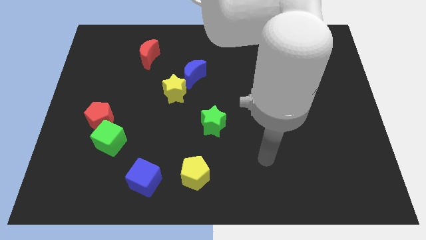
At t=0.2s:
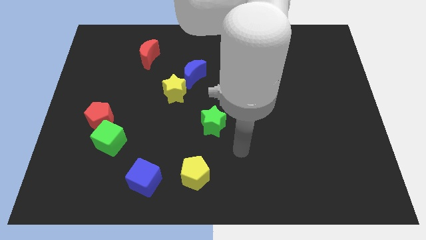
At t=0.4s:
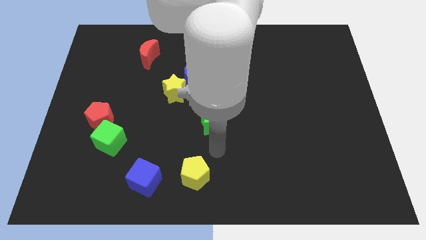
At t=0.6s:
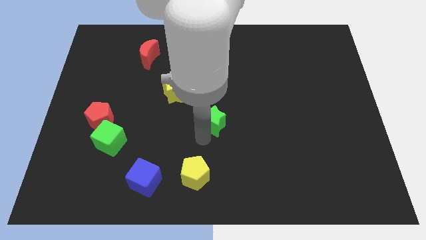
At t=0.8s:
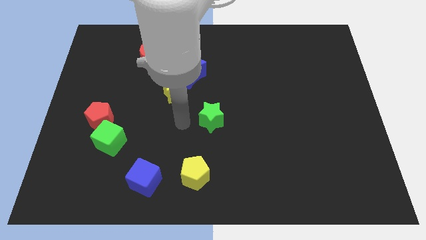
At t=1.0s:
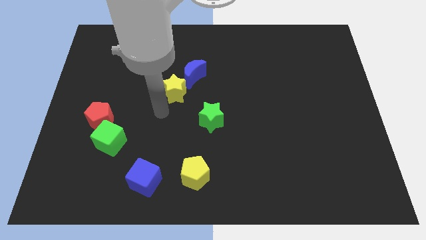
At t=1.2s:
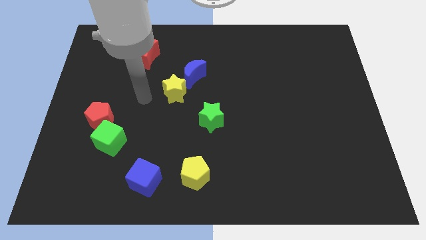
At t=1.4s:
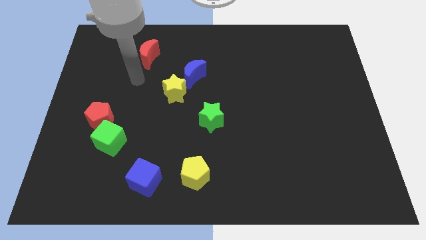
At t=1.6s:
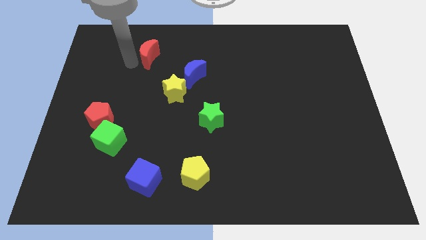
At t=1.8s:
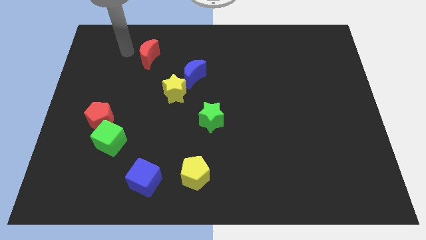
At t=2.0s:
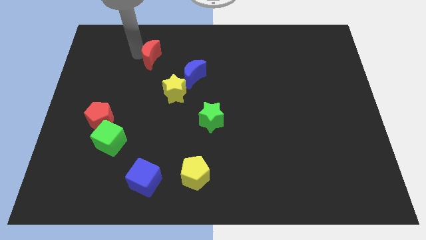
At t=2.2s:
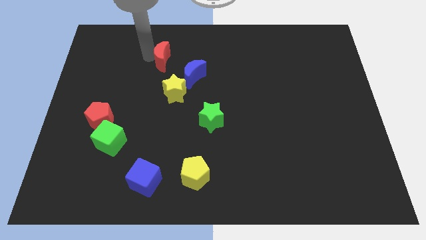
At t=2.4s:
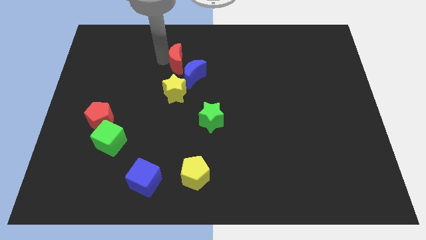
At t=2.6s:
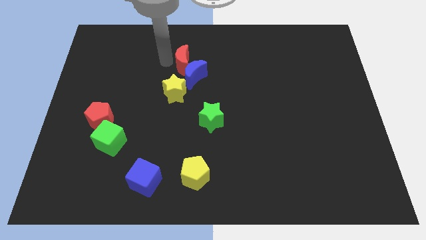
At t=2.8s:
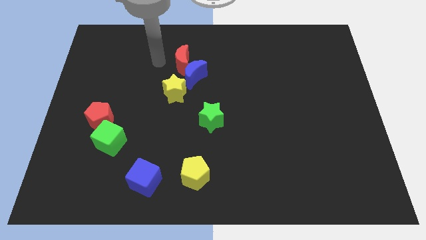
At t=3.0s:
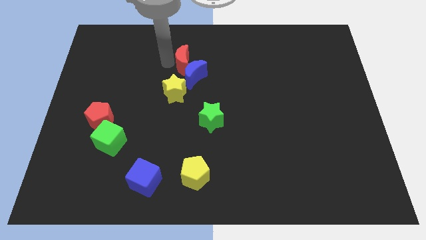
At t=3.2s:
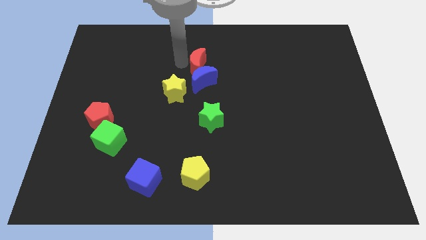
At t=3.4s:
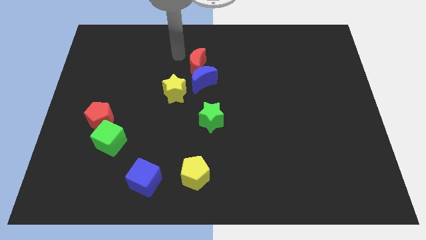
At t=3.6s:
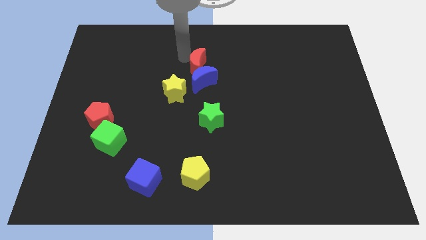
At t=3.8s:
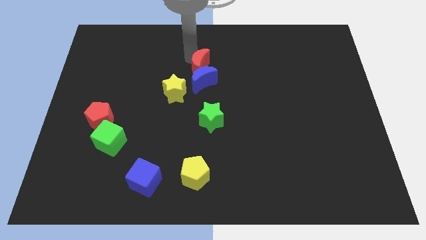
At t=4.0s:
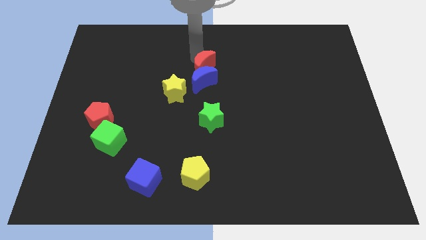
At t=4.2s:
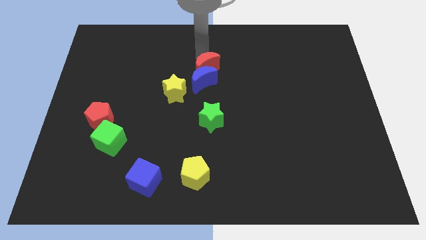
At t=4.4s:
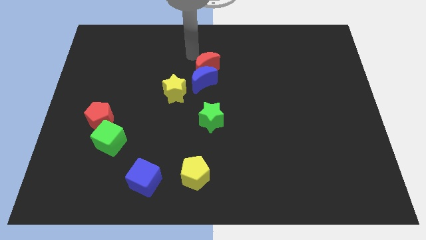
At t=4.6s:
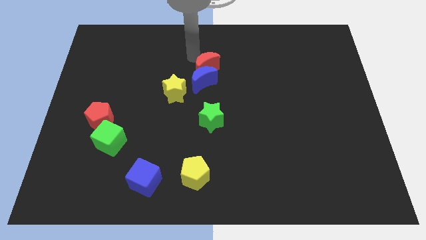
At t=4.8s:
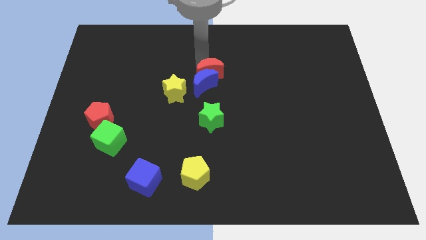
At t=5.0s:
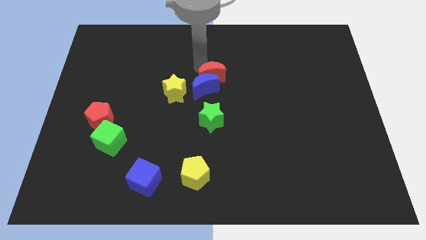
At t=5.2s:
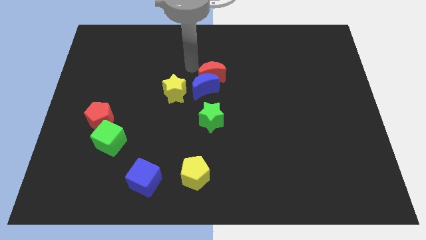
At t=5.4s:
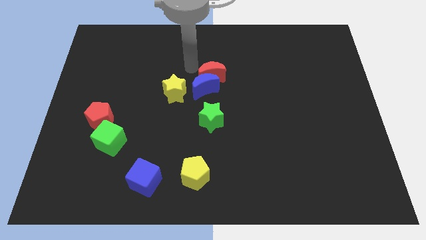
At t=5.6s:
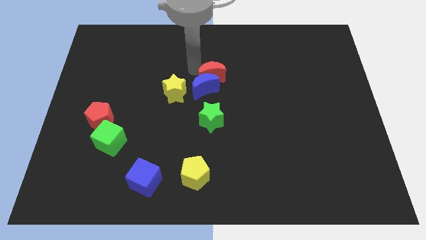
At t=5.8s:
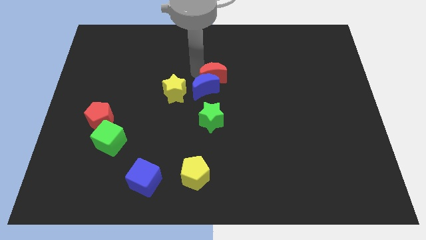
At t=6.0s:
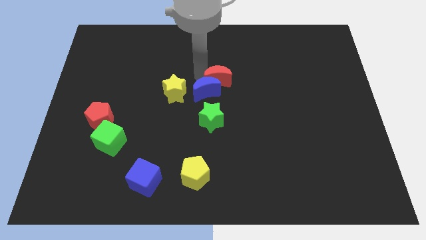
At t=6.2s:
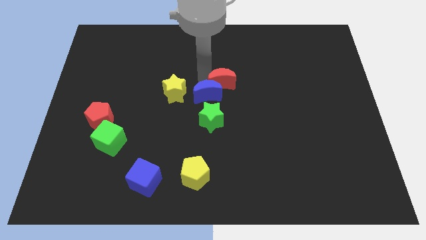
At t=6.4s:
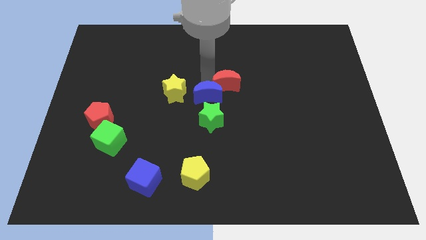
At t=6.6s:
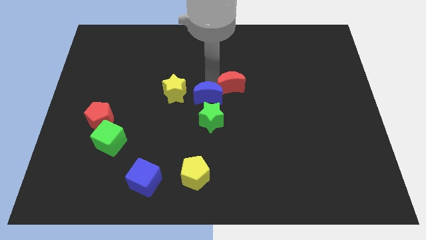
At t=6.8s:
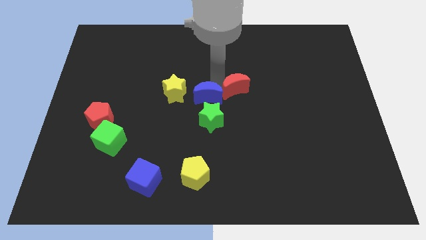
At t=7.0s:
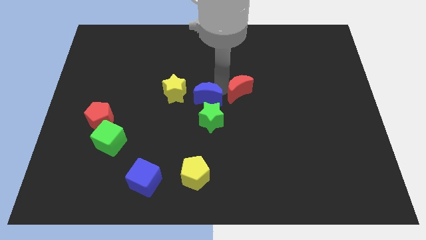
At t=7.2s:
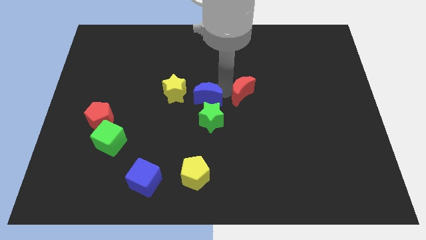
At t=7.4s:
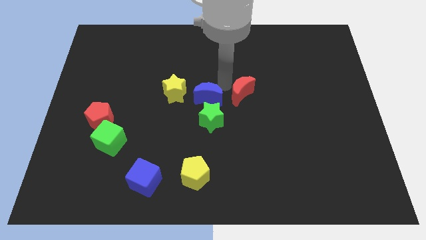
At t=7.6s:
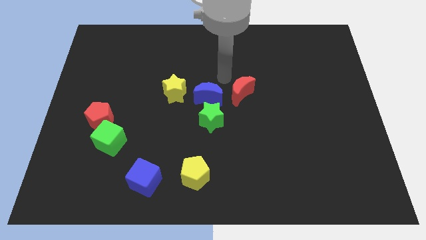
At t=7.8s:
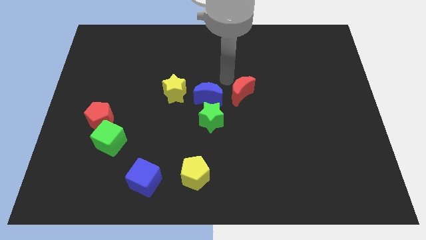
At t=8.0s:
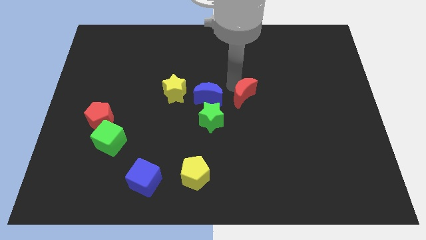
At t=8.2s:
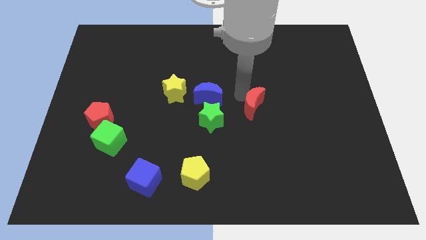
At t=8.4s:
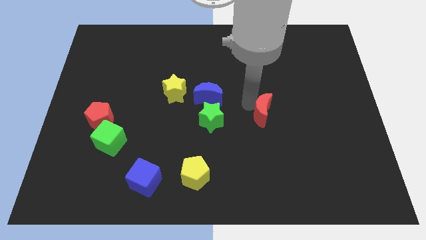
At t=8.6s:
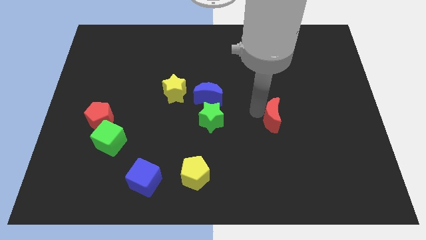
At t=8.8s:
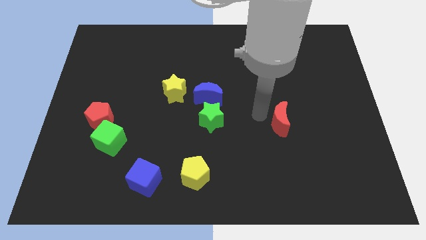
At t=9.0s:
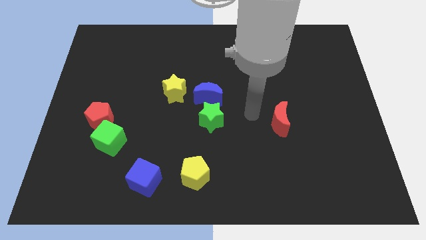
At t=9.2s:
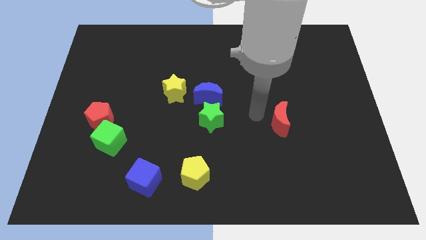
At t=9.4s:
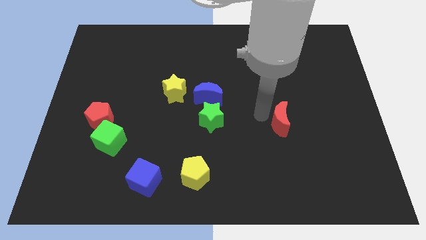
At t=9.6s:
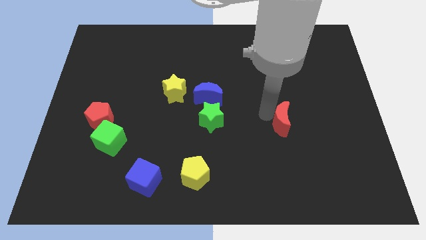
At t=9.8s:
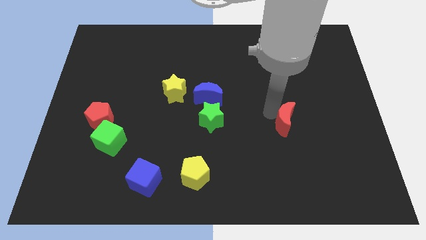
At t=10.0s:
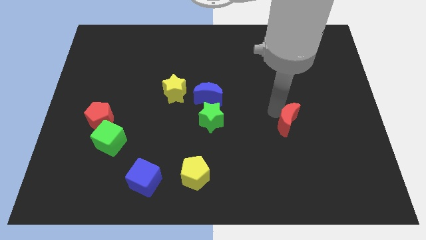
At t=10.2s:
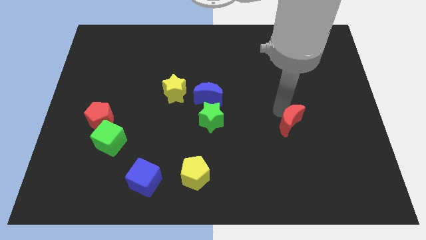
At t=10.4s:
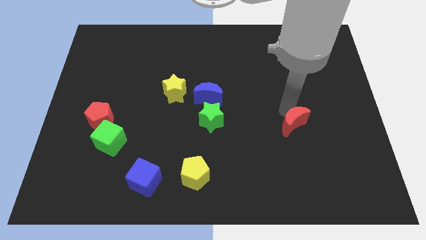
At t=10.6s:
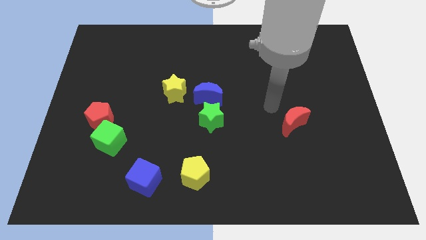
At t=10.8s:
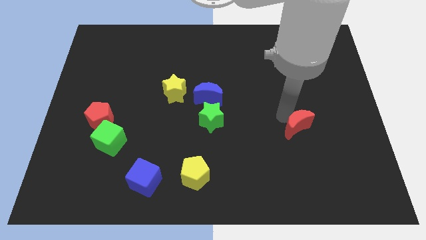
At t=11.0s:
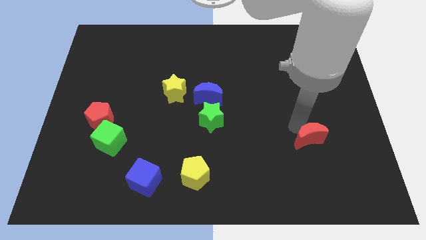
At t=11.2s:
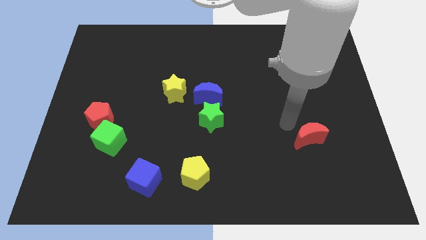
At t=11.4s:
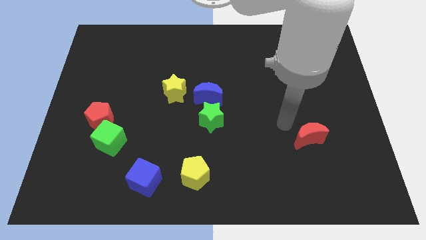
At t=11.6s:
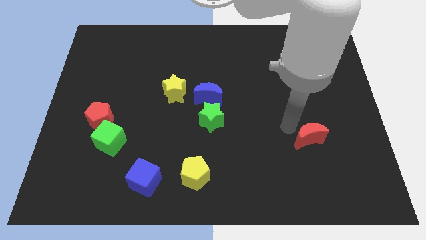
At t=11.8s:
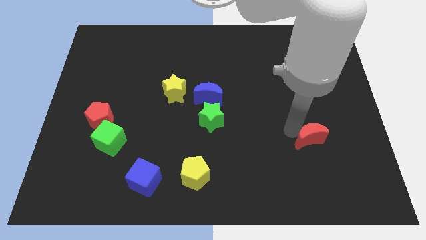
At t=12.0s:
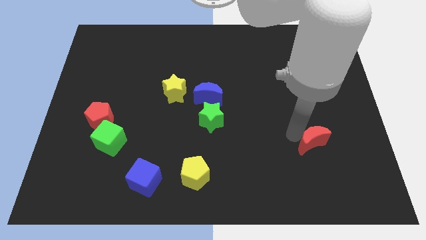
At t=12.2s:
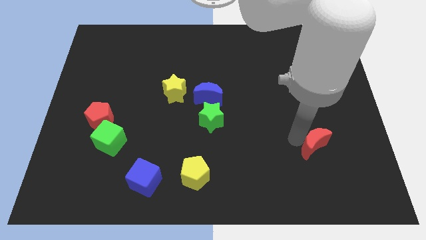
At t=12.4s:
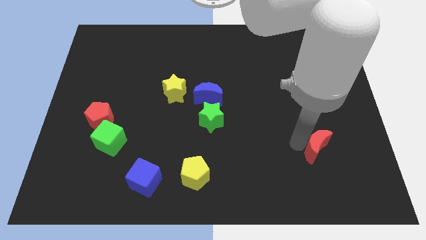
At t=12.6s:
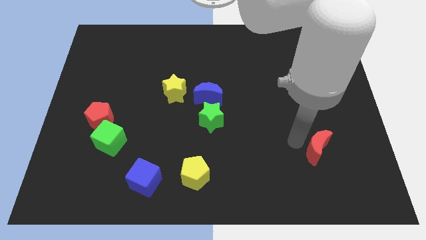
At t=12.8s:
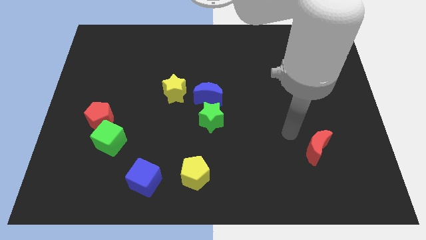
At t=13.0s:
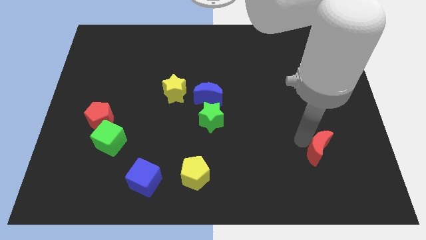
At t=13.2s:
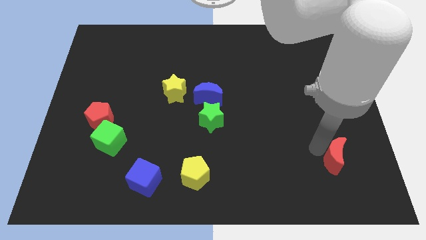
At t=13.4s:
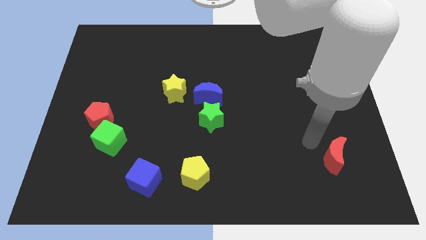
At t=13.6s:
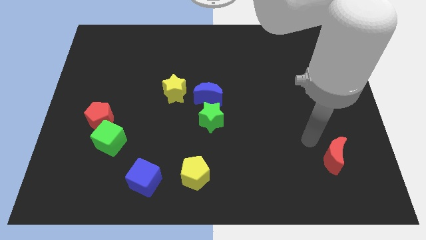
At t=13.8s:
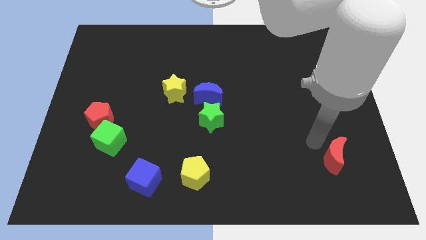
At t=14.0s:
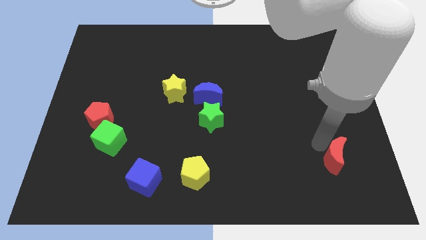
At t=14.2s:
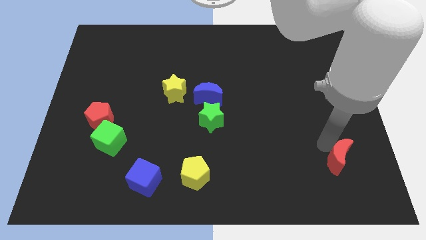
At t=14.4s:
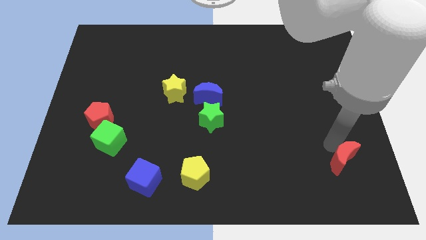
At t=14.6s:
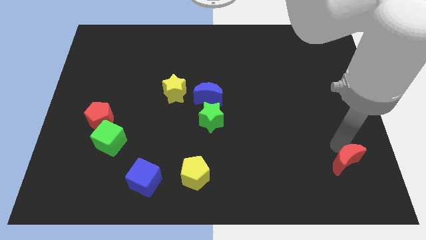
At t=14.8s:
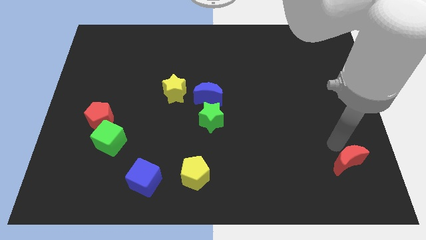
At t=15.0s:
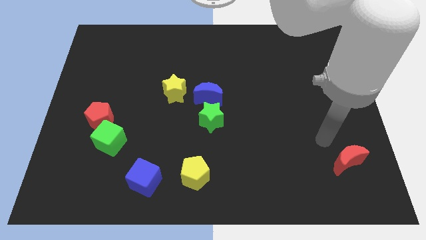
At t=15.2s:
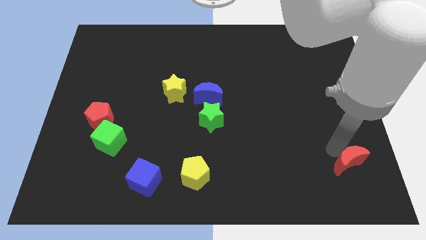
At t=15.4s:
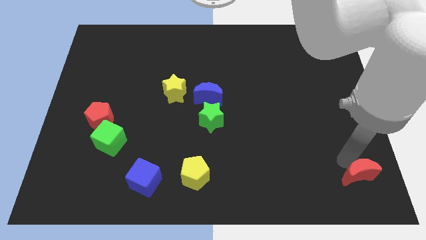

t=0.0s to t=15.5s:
move the red moon to the lower right corner
